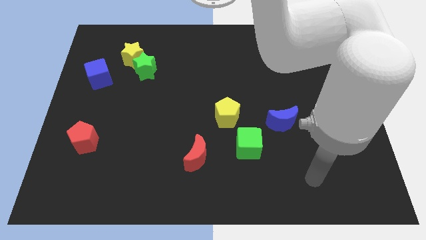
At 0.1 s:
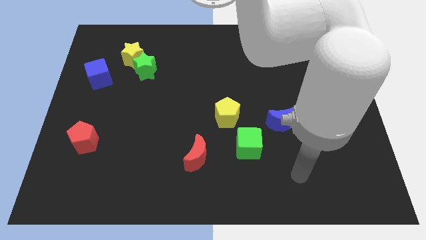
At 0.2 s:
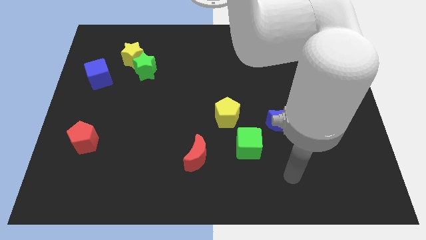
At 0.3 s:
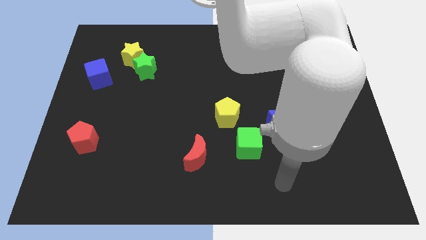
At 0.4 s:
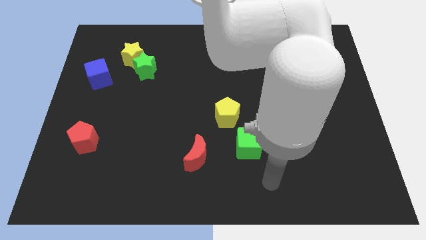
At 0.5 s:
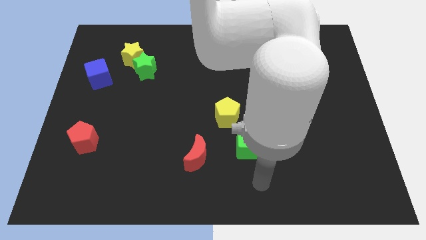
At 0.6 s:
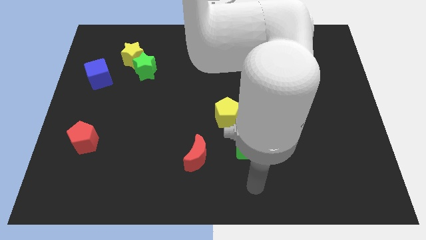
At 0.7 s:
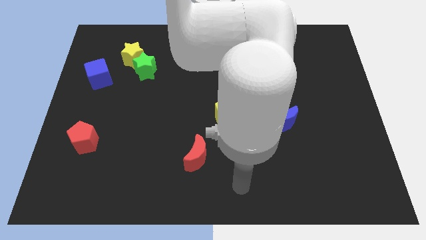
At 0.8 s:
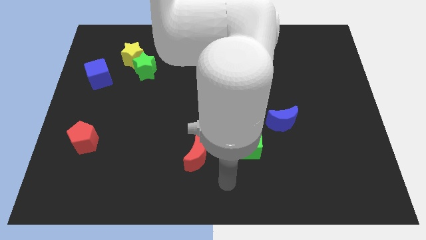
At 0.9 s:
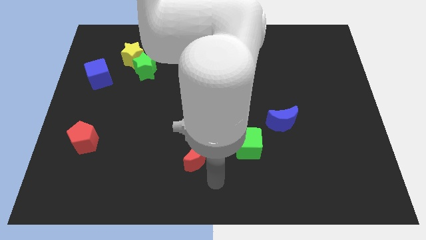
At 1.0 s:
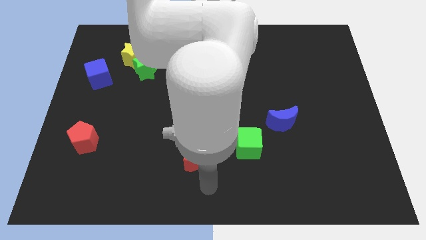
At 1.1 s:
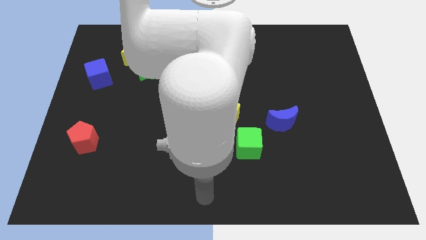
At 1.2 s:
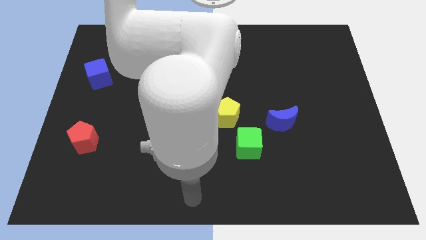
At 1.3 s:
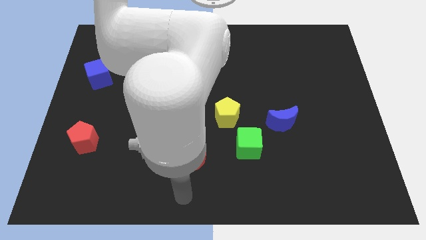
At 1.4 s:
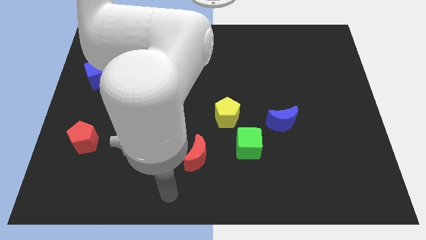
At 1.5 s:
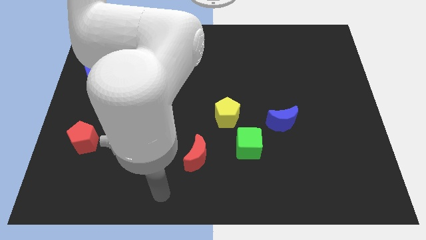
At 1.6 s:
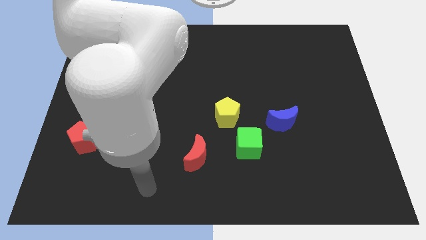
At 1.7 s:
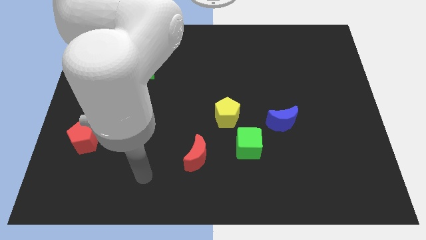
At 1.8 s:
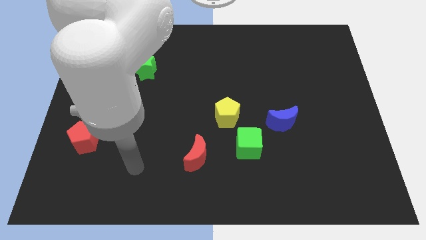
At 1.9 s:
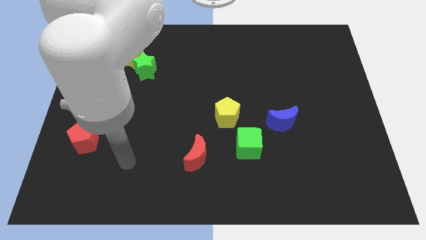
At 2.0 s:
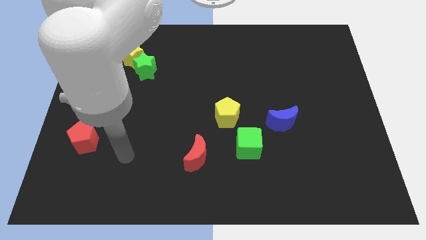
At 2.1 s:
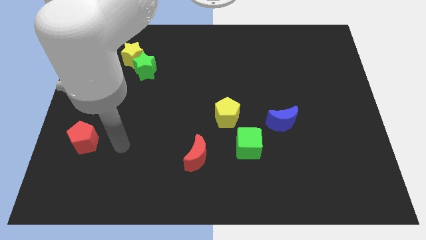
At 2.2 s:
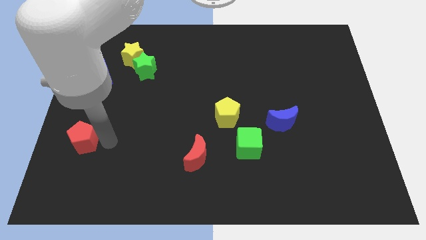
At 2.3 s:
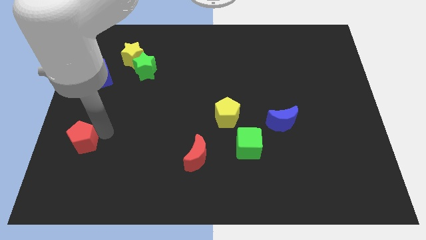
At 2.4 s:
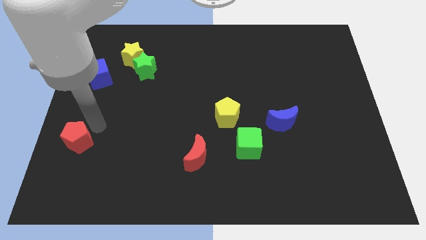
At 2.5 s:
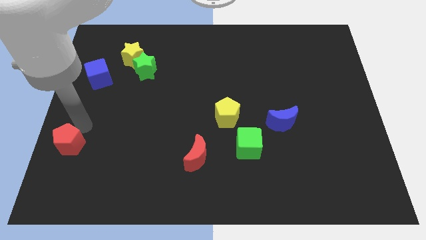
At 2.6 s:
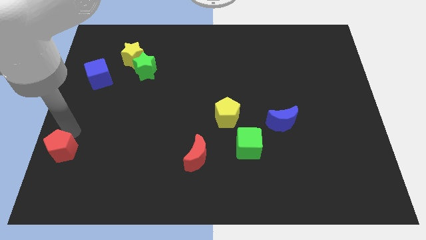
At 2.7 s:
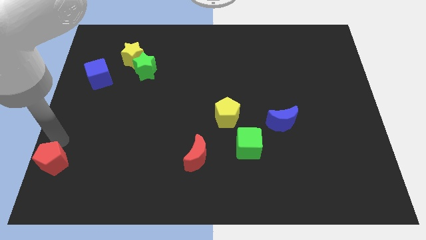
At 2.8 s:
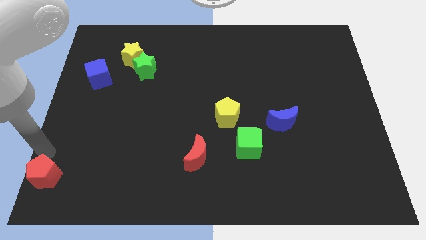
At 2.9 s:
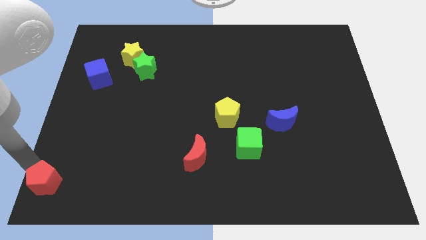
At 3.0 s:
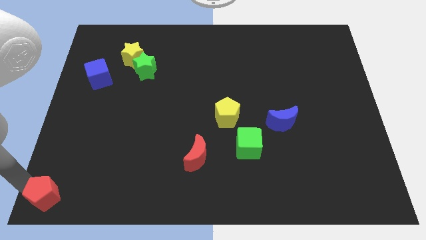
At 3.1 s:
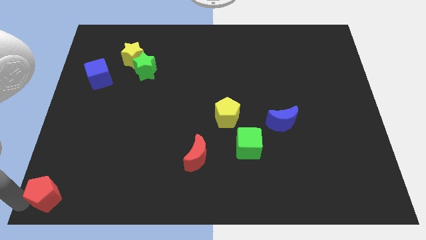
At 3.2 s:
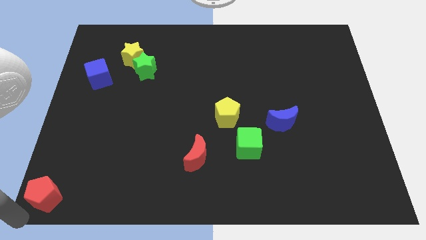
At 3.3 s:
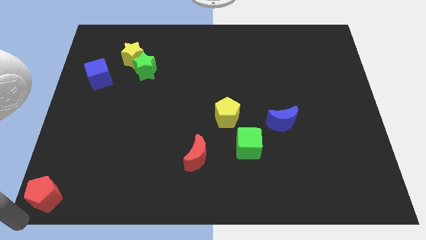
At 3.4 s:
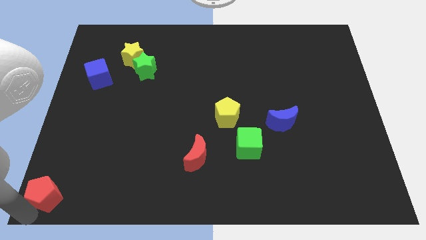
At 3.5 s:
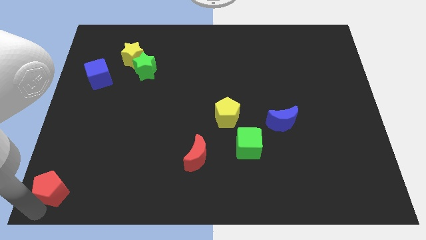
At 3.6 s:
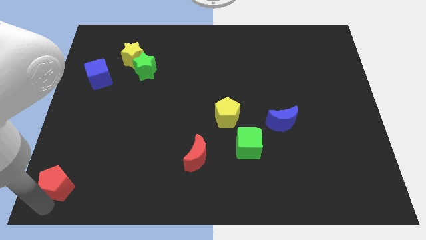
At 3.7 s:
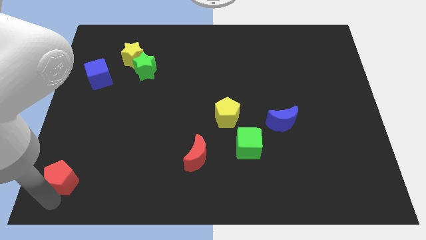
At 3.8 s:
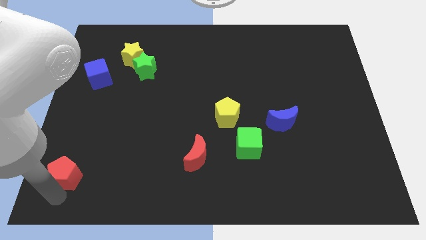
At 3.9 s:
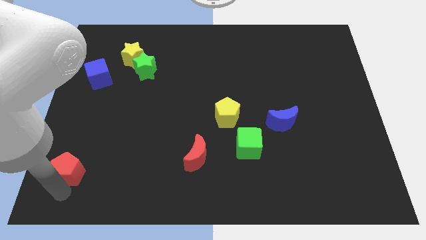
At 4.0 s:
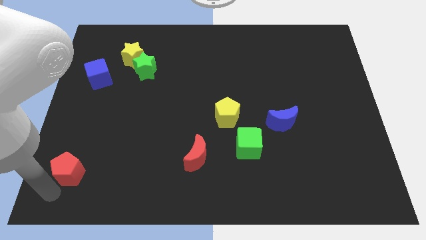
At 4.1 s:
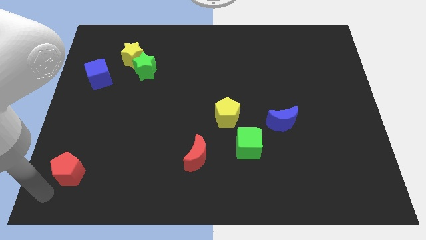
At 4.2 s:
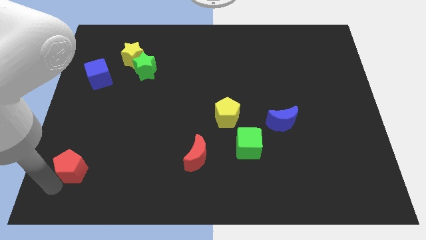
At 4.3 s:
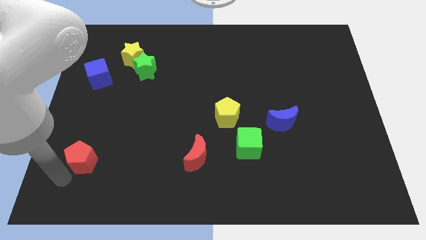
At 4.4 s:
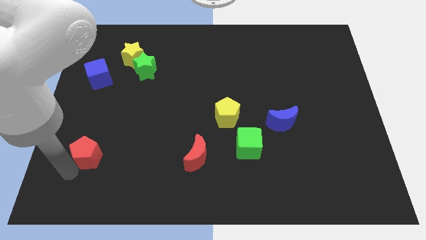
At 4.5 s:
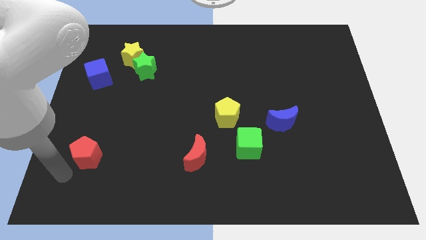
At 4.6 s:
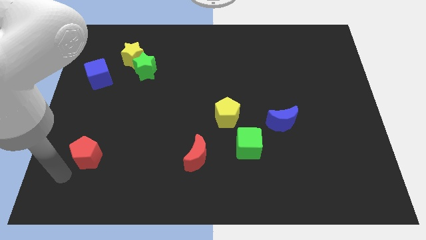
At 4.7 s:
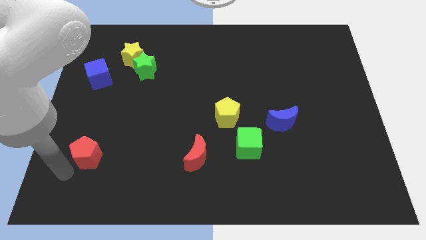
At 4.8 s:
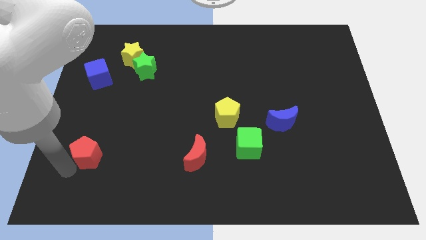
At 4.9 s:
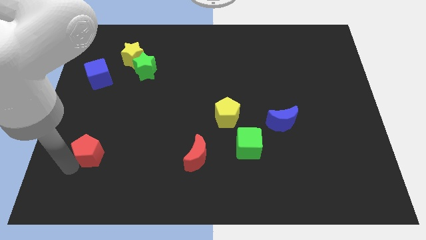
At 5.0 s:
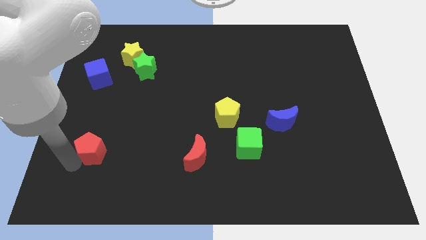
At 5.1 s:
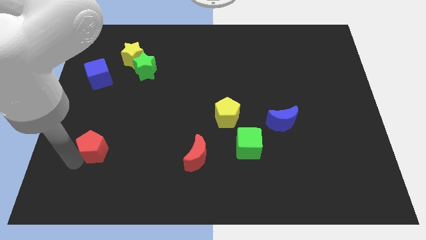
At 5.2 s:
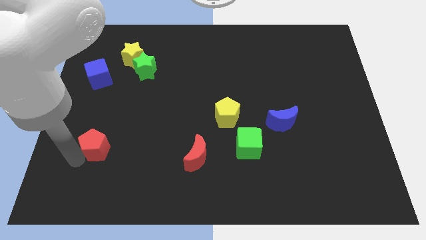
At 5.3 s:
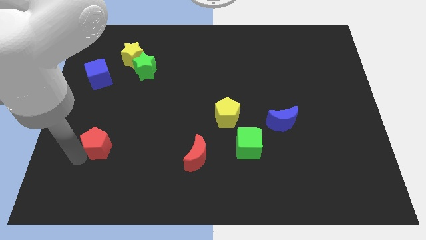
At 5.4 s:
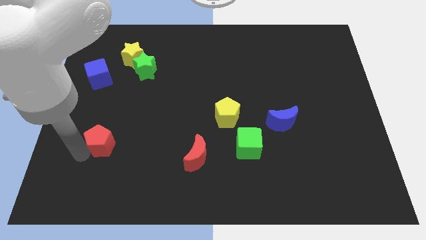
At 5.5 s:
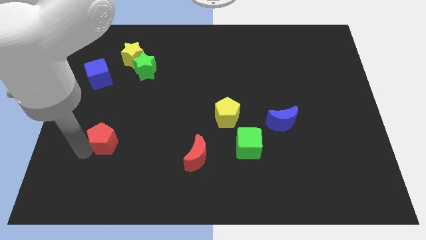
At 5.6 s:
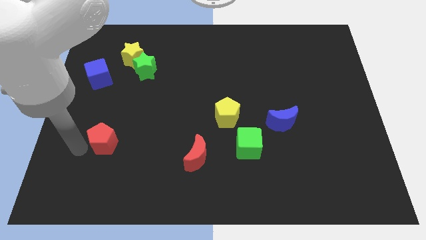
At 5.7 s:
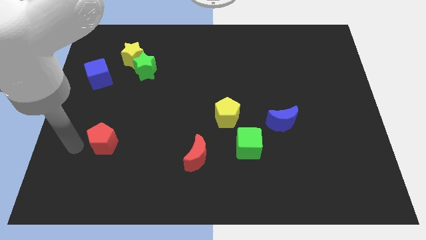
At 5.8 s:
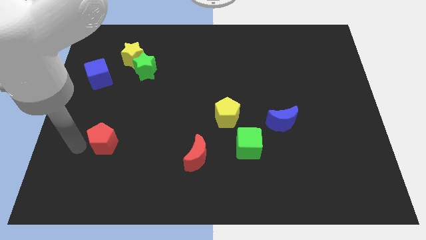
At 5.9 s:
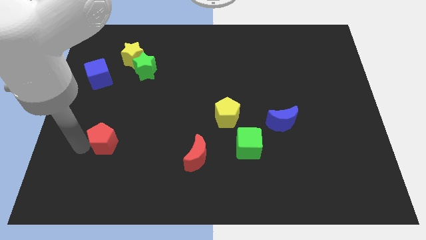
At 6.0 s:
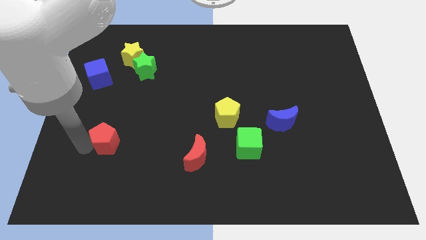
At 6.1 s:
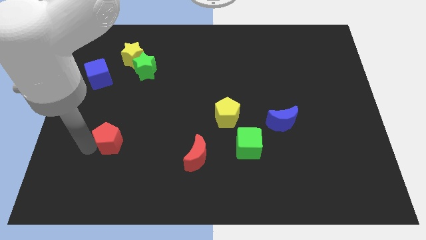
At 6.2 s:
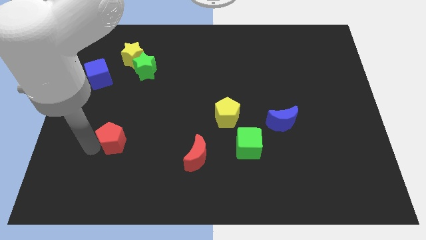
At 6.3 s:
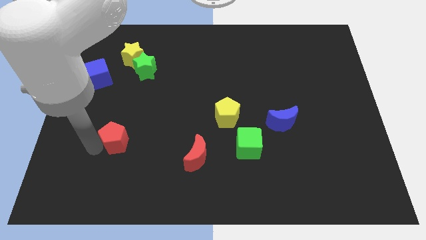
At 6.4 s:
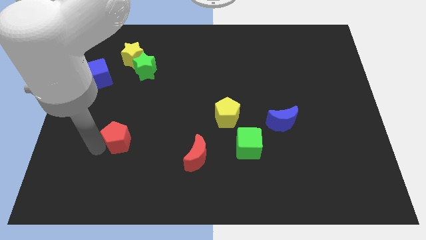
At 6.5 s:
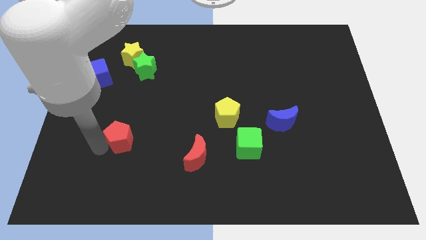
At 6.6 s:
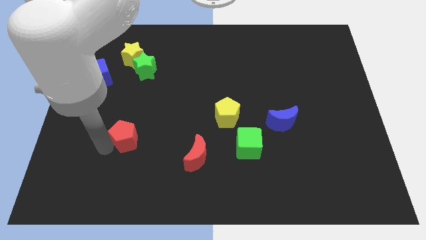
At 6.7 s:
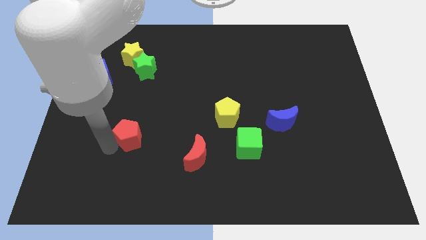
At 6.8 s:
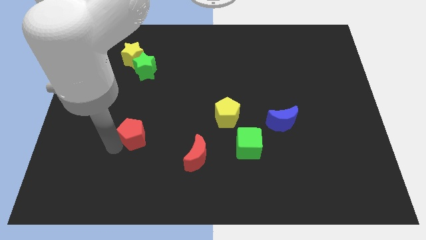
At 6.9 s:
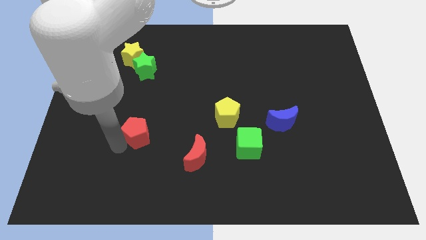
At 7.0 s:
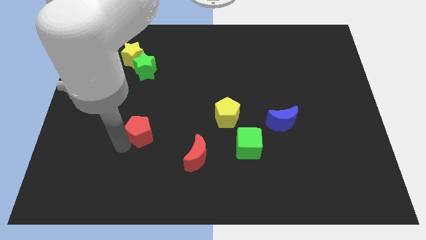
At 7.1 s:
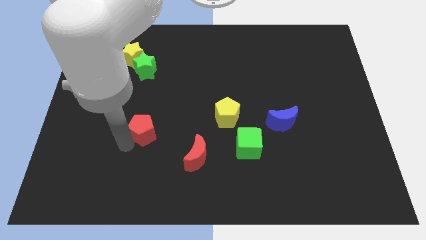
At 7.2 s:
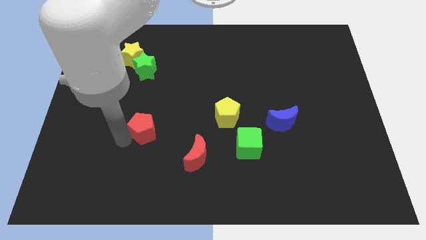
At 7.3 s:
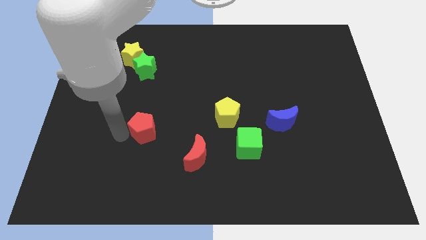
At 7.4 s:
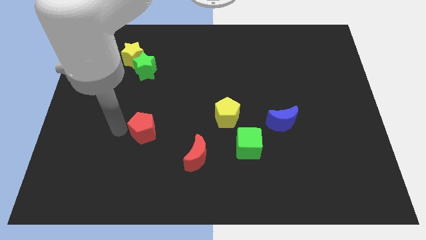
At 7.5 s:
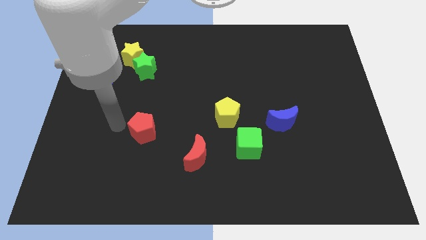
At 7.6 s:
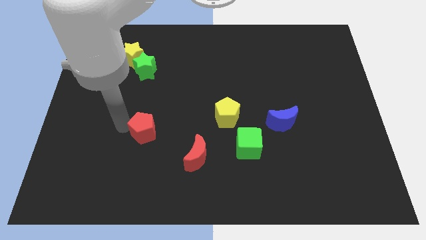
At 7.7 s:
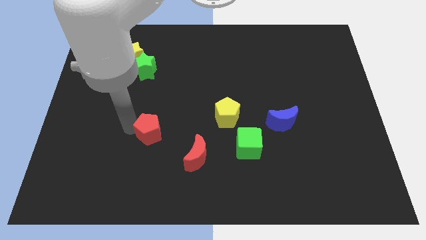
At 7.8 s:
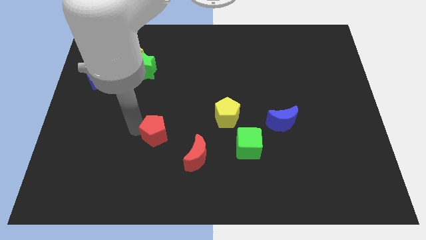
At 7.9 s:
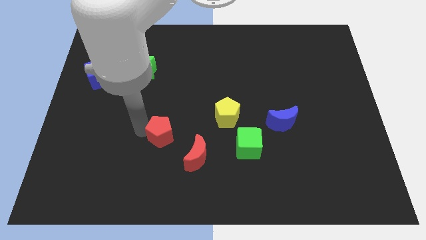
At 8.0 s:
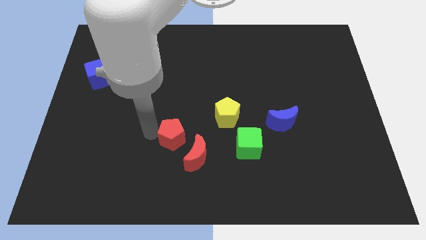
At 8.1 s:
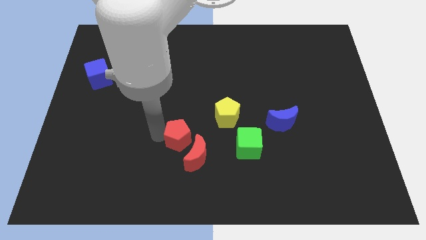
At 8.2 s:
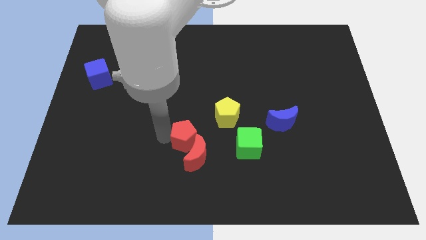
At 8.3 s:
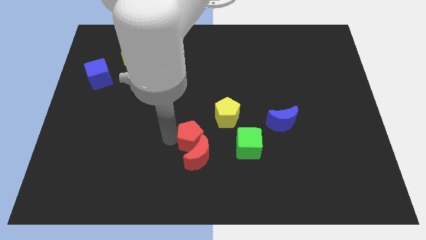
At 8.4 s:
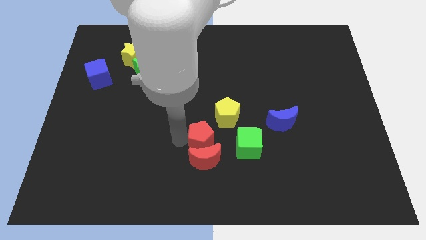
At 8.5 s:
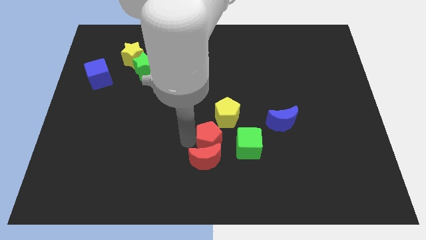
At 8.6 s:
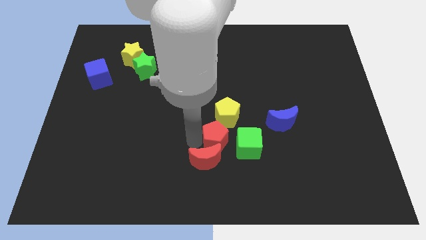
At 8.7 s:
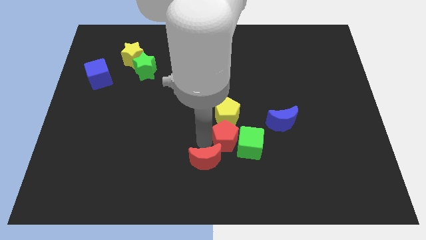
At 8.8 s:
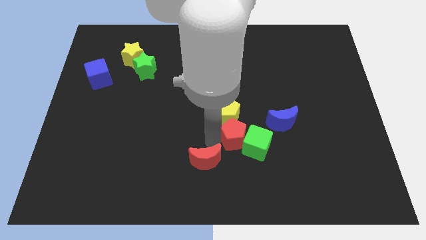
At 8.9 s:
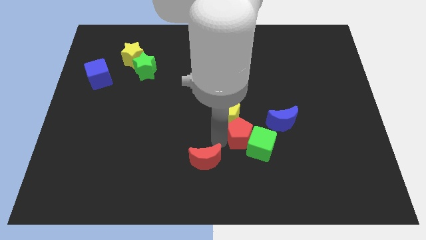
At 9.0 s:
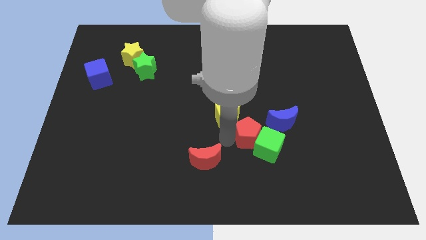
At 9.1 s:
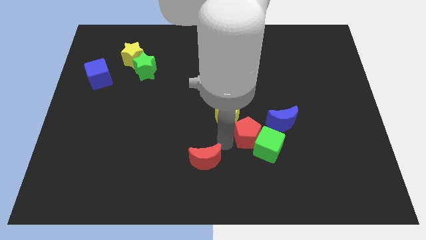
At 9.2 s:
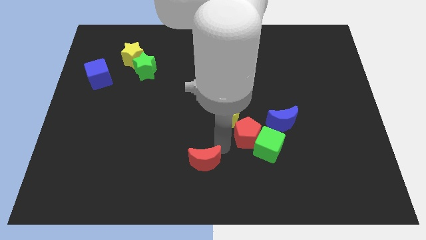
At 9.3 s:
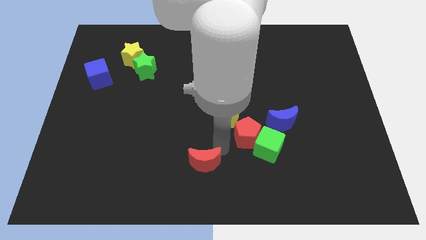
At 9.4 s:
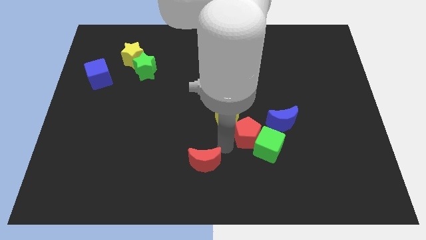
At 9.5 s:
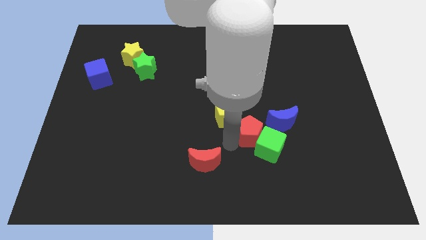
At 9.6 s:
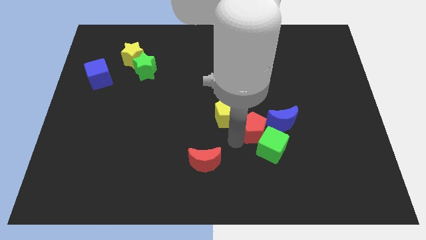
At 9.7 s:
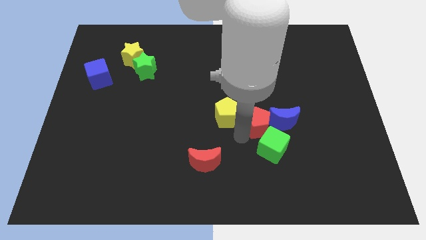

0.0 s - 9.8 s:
put the red pentagon next to the blue moon
